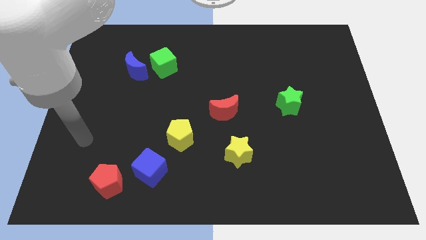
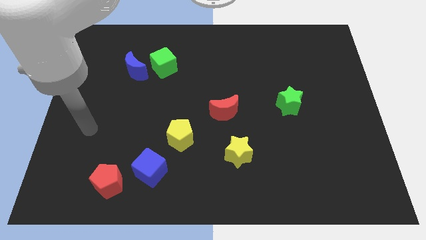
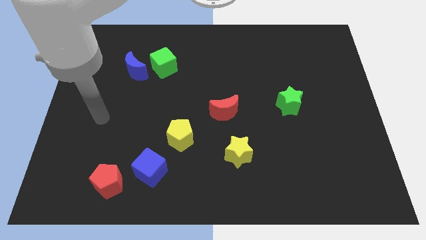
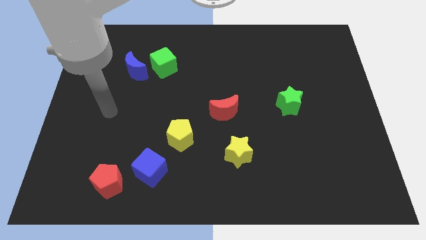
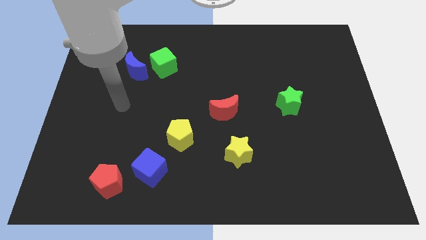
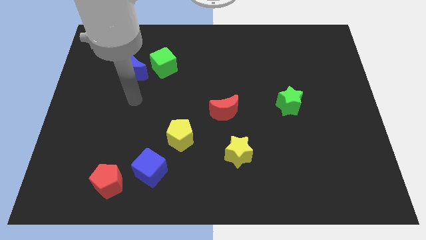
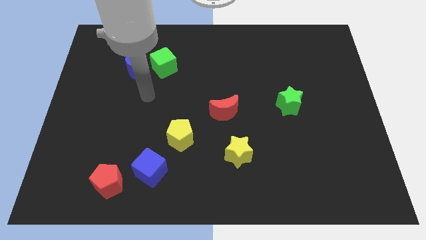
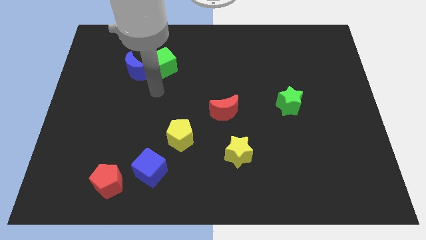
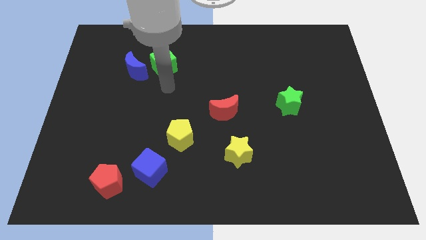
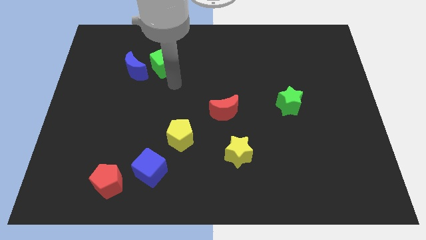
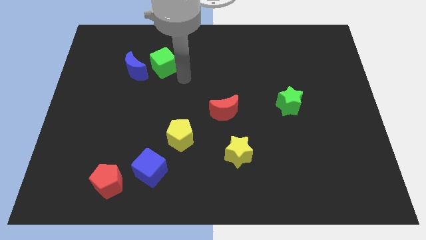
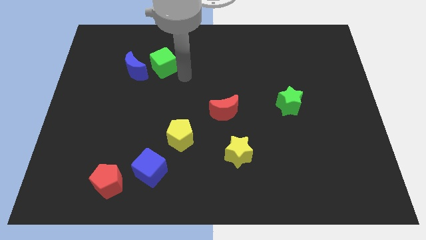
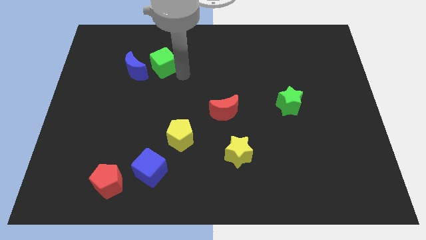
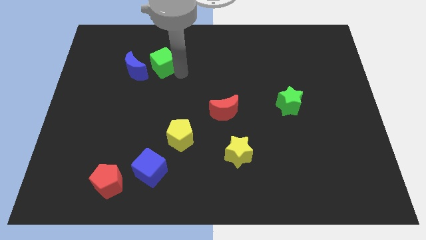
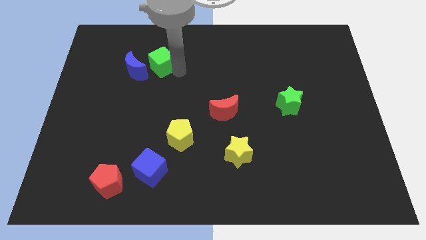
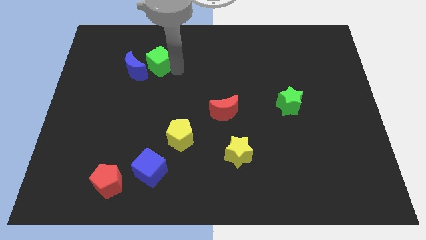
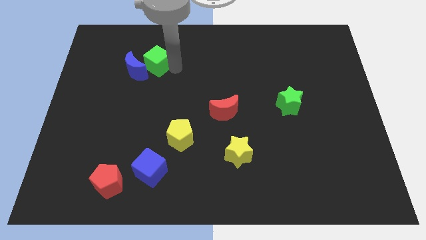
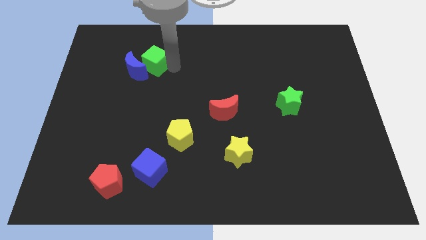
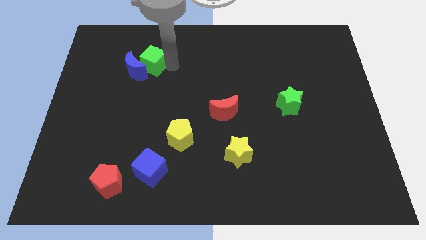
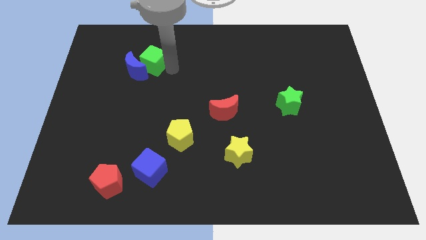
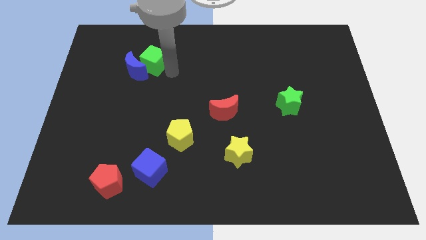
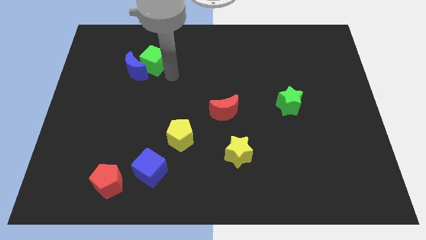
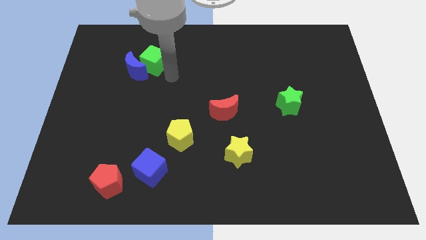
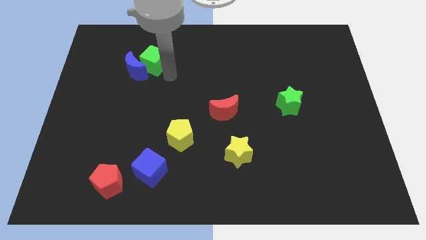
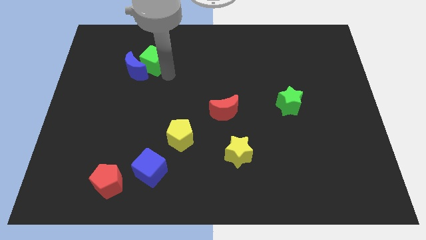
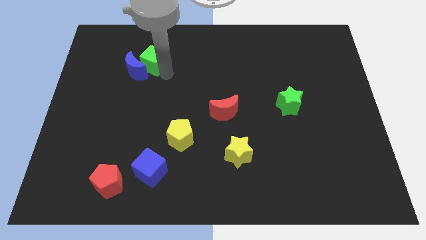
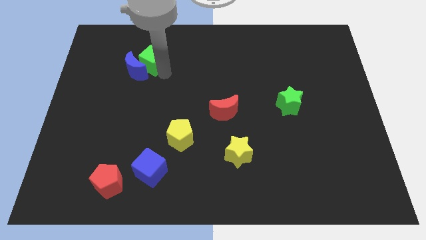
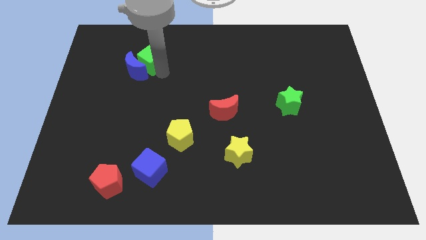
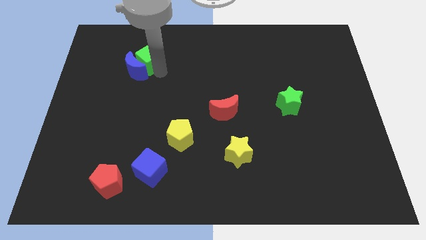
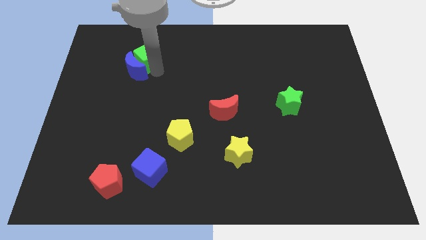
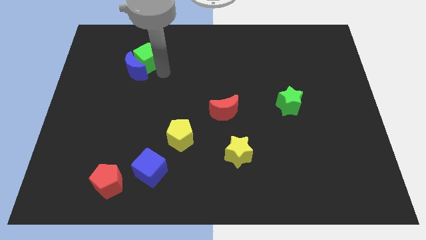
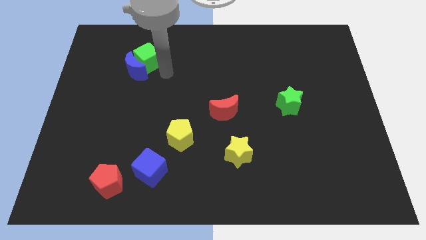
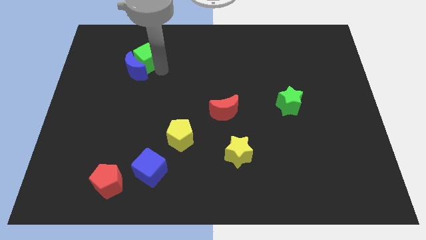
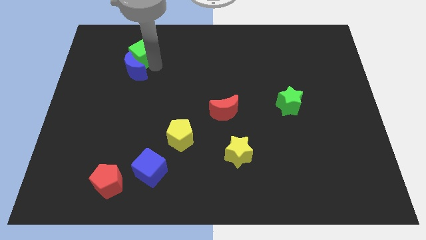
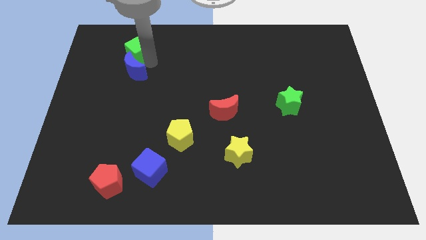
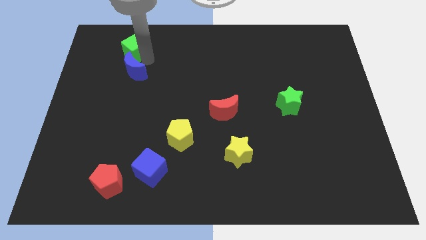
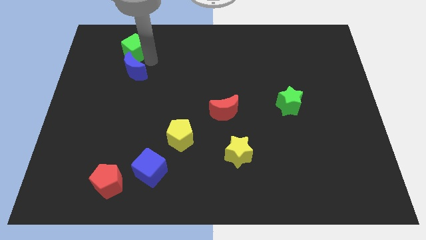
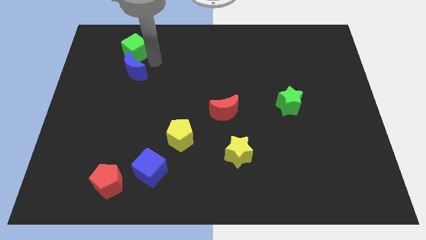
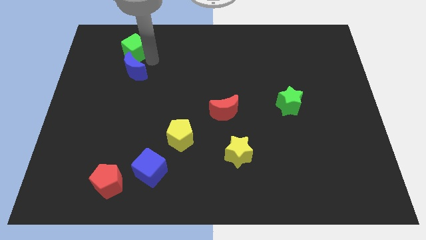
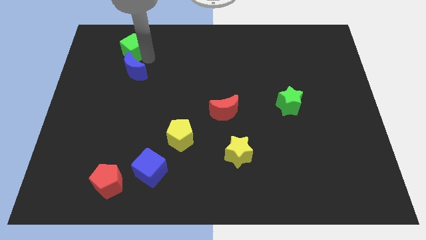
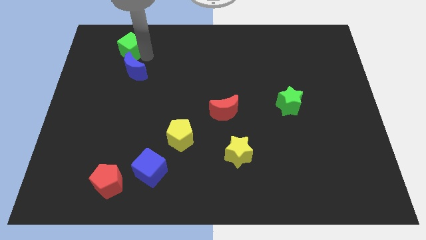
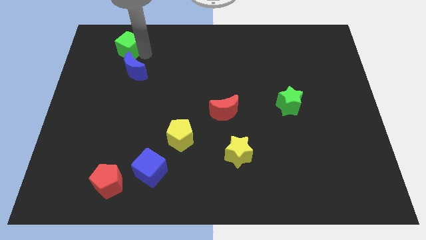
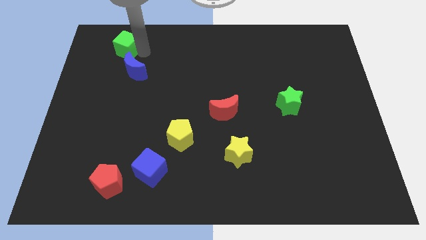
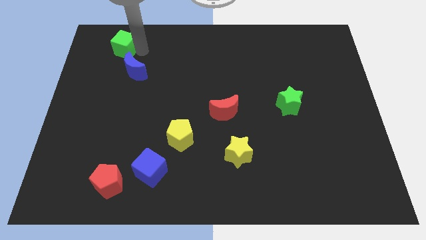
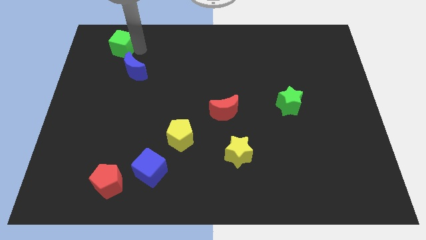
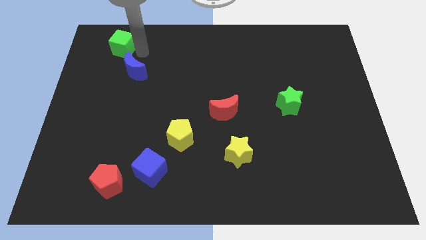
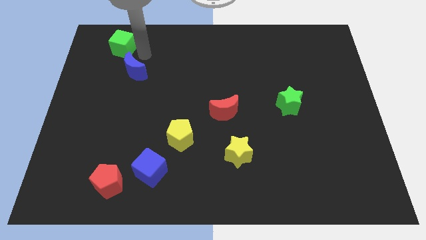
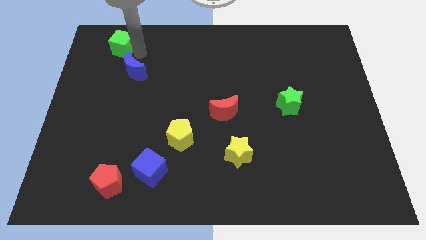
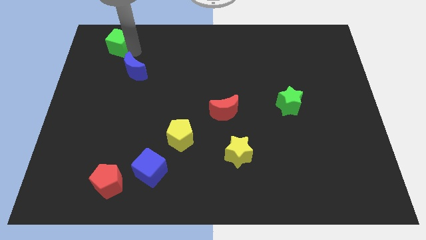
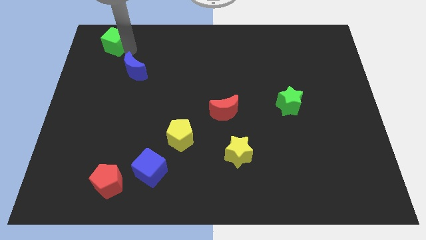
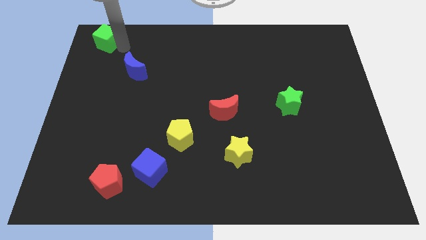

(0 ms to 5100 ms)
slide the green cube to the upper left corner

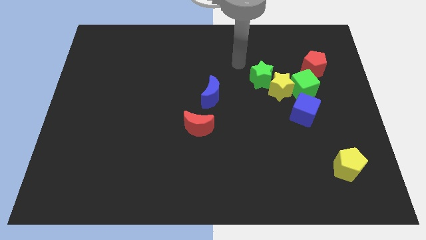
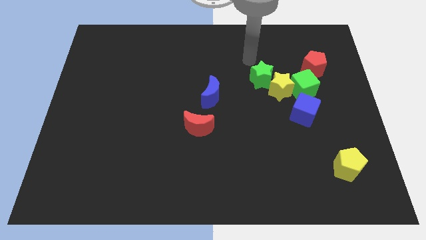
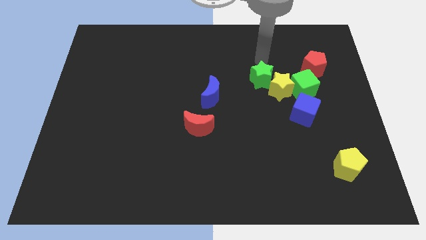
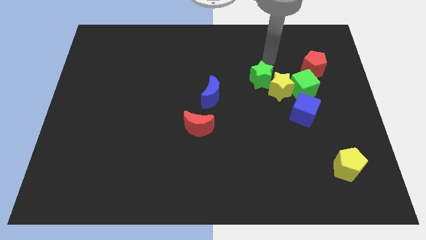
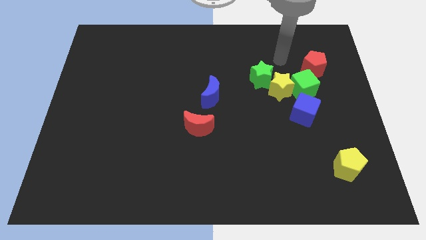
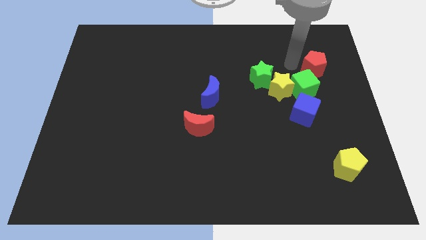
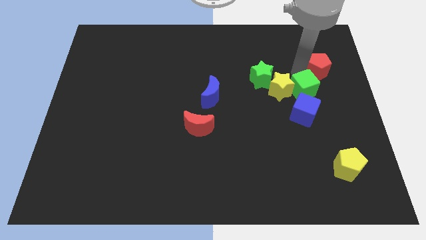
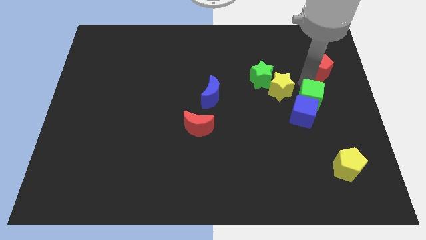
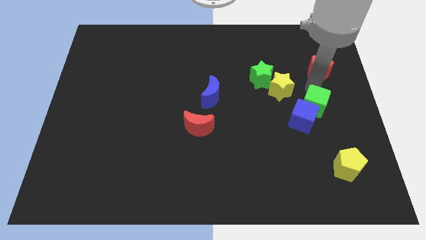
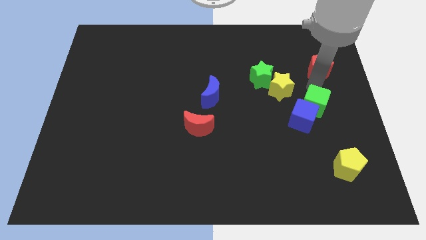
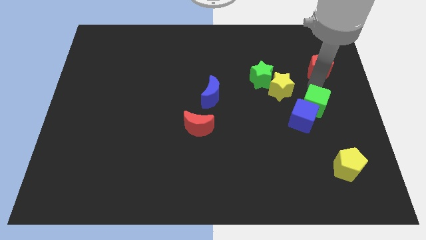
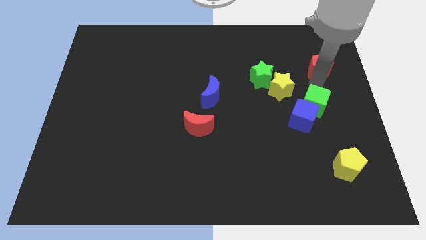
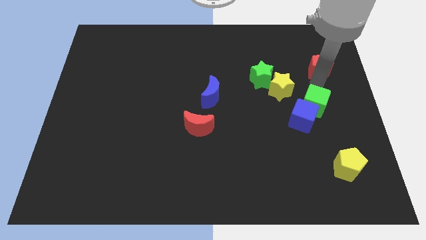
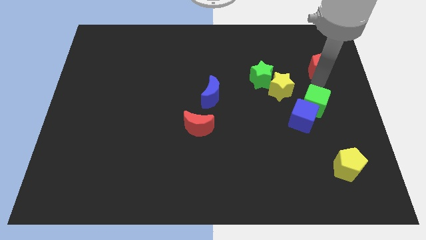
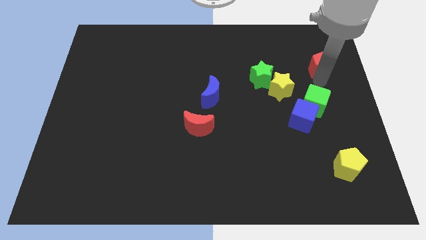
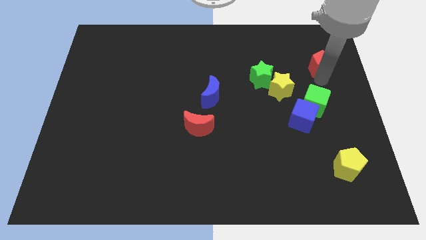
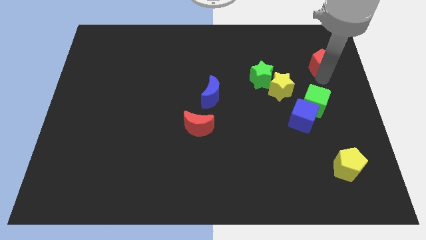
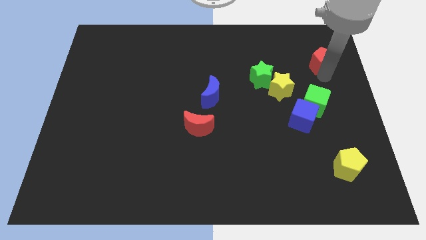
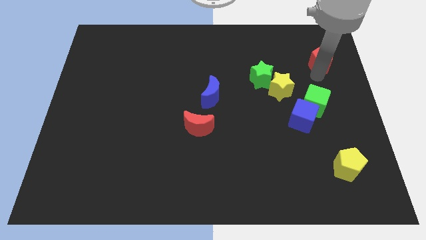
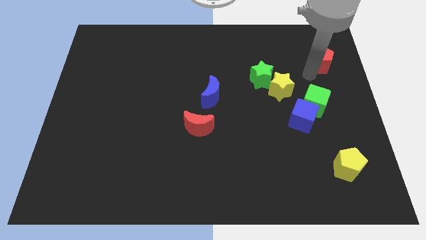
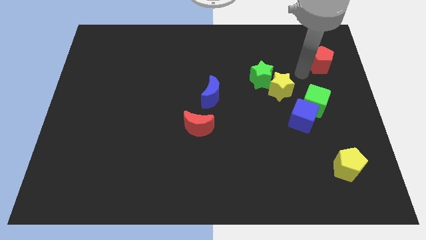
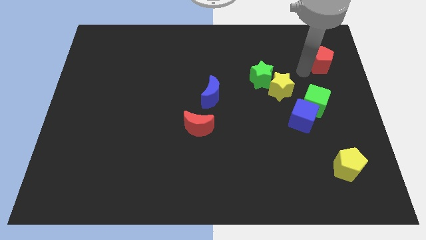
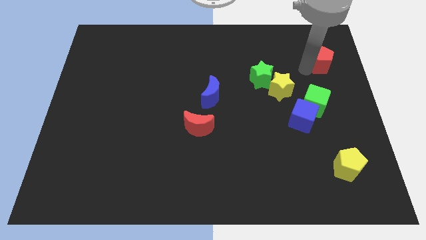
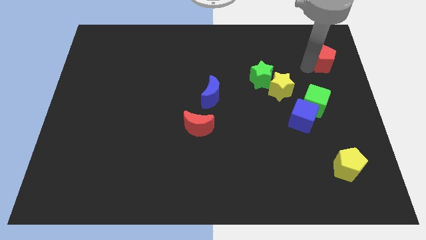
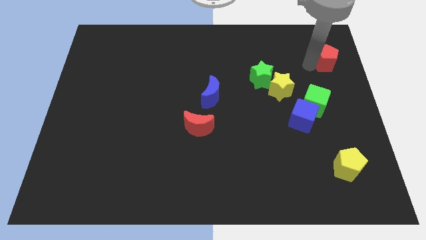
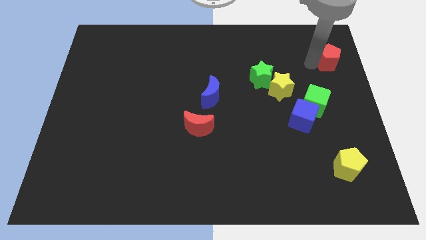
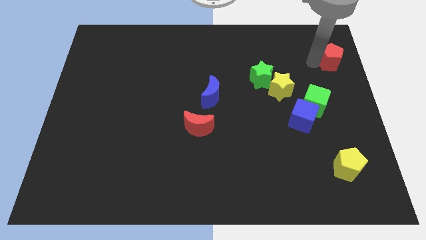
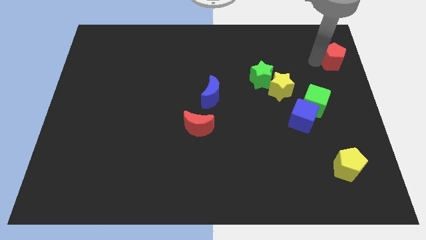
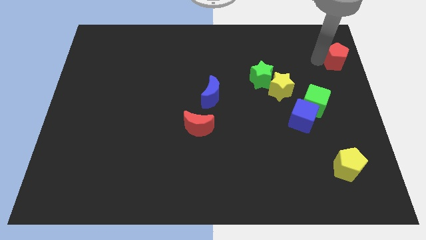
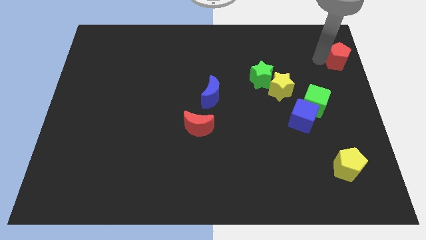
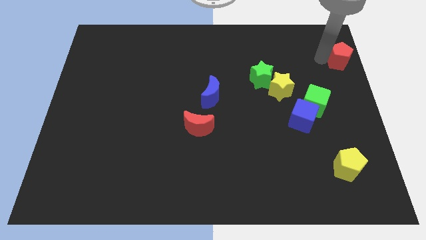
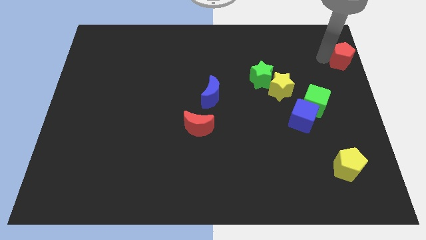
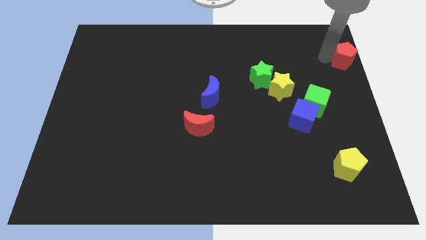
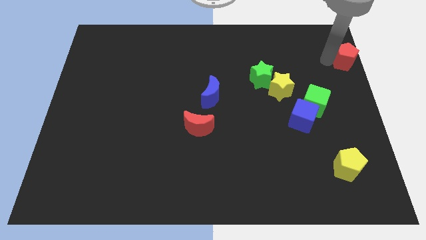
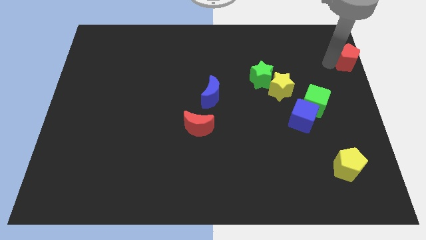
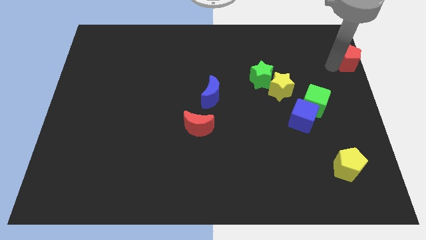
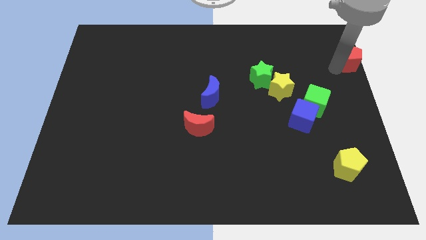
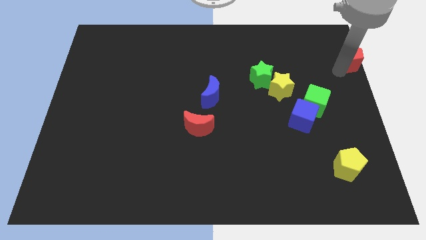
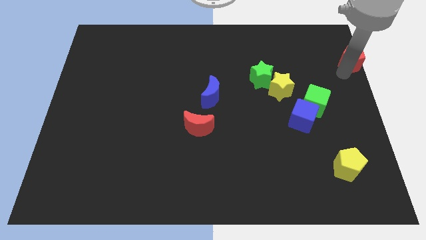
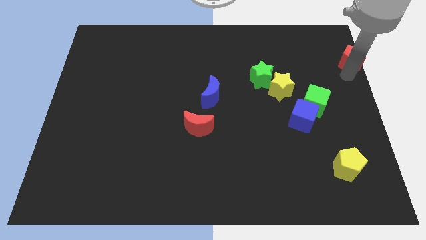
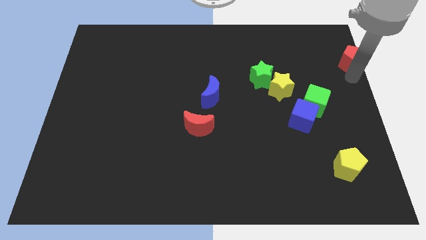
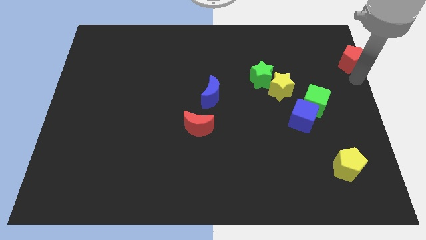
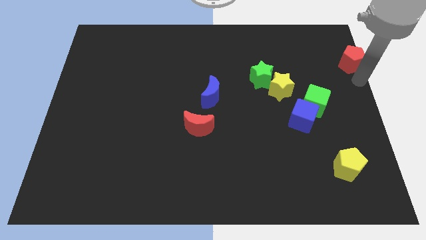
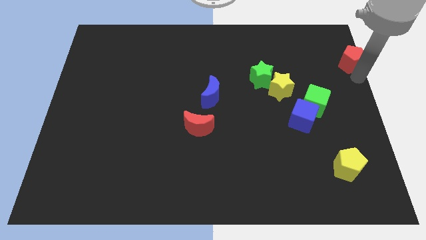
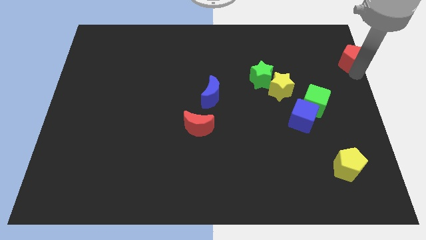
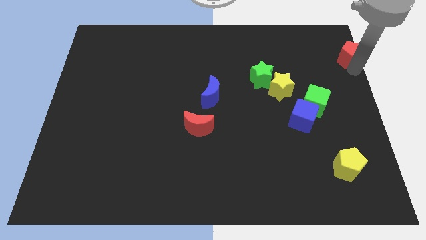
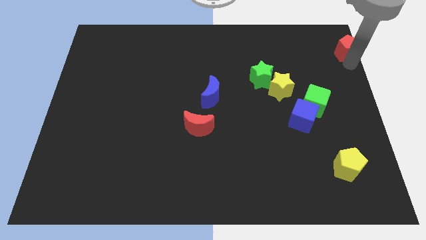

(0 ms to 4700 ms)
move the red pentagon to the top right
